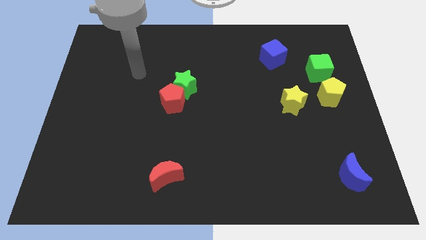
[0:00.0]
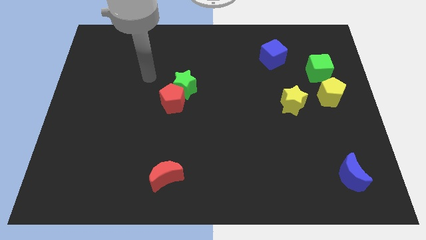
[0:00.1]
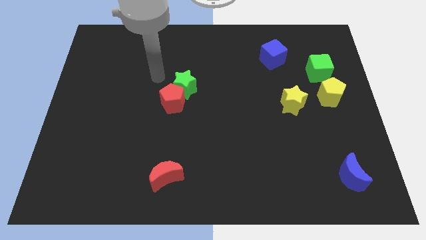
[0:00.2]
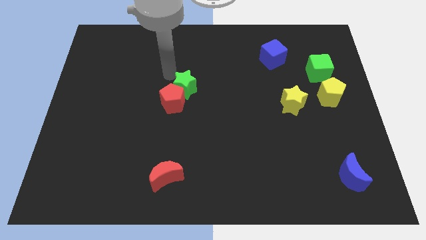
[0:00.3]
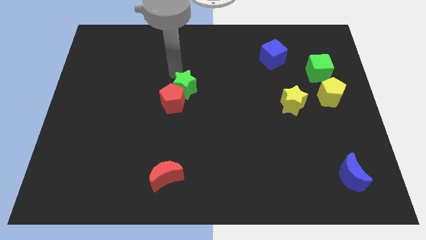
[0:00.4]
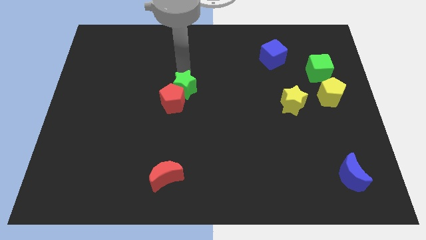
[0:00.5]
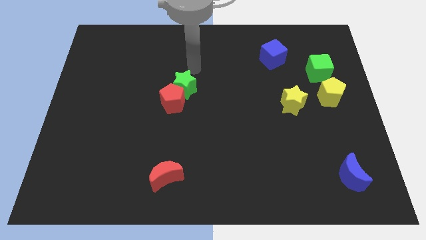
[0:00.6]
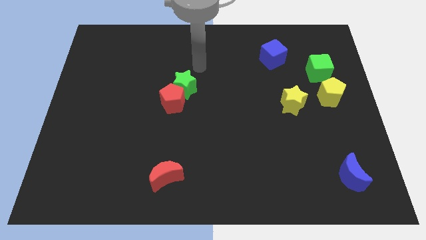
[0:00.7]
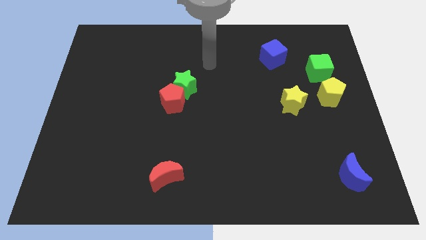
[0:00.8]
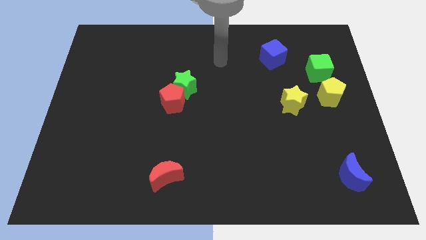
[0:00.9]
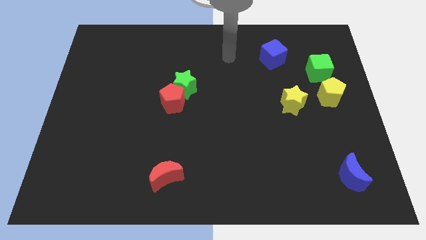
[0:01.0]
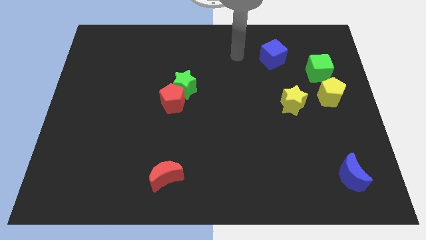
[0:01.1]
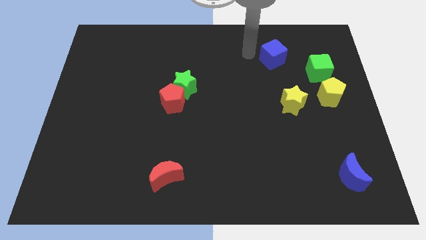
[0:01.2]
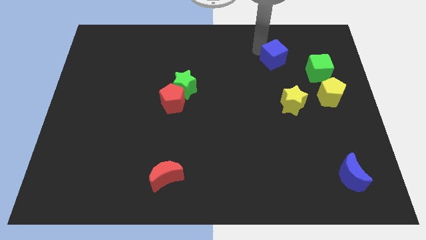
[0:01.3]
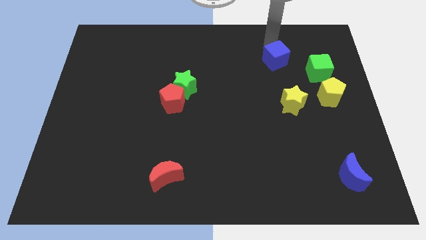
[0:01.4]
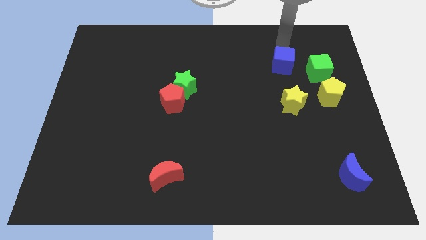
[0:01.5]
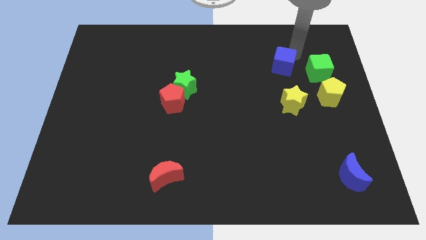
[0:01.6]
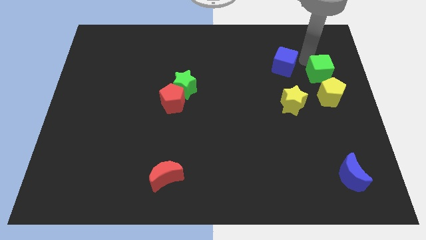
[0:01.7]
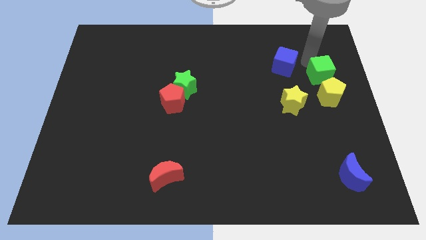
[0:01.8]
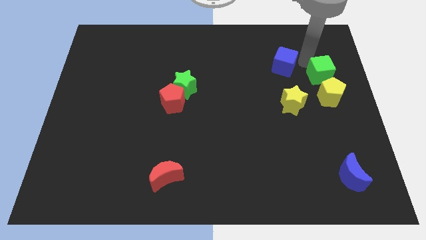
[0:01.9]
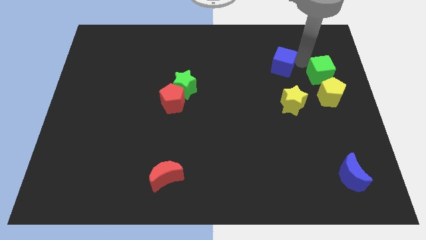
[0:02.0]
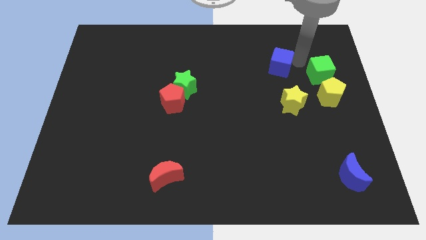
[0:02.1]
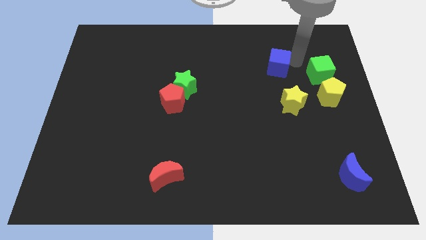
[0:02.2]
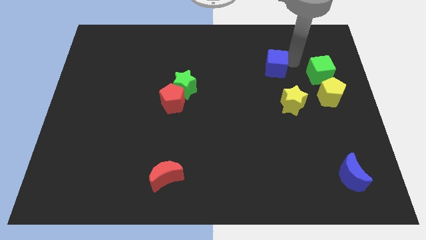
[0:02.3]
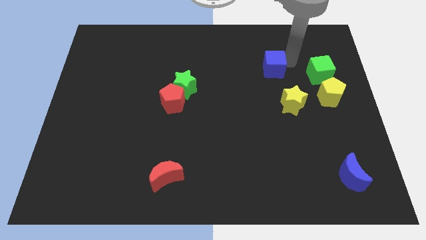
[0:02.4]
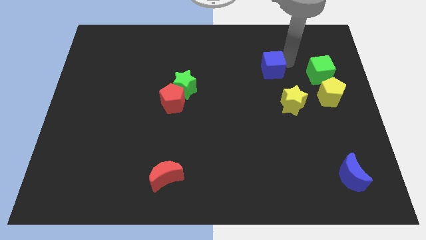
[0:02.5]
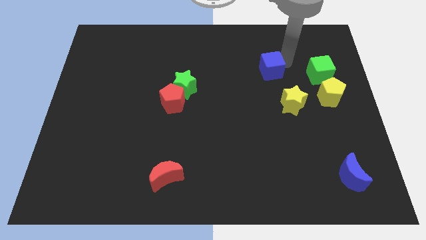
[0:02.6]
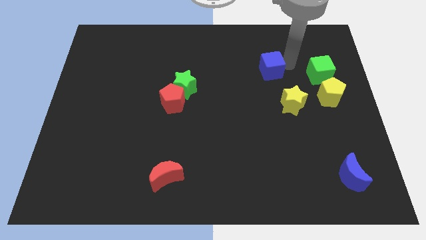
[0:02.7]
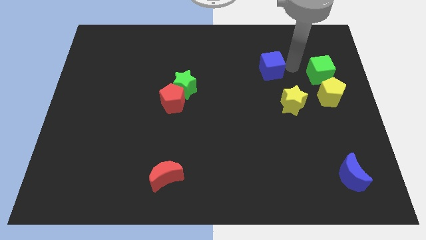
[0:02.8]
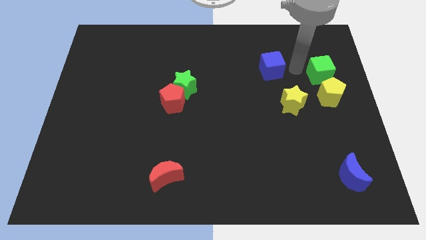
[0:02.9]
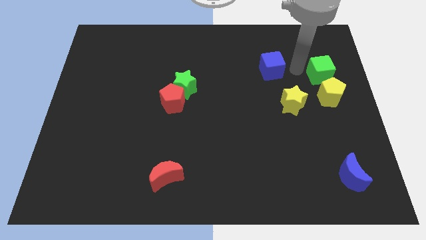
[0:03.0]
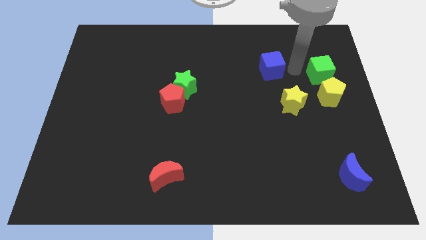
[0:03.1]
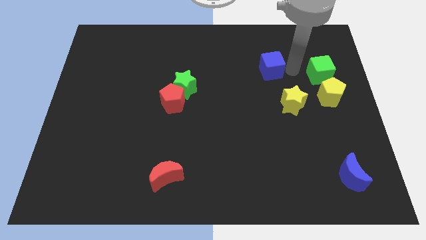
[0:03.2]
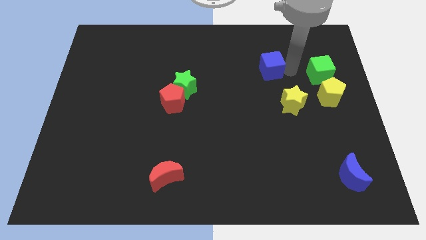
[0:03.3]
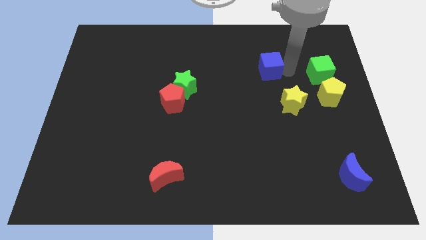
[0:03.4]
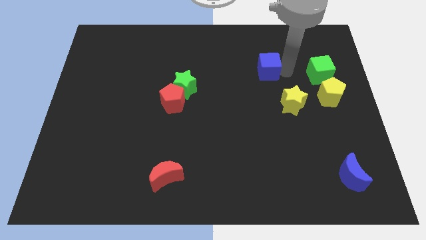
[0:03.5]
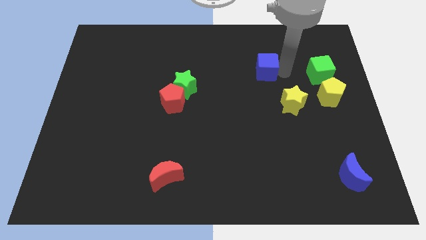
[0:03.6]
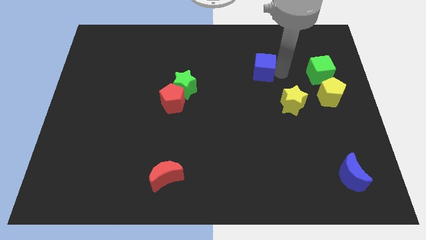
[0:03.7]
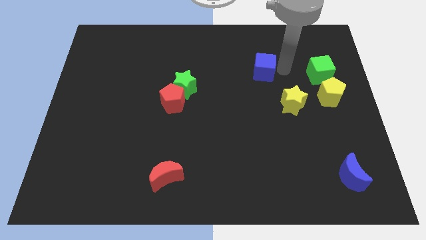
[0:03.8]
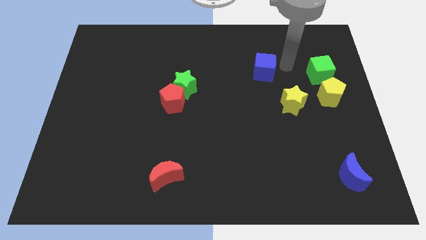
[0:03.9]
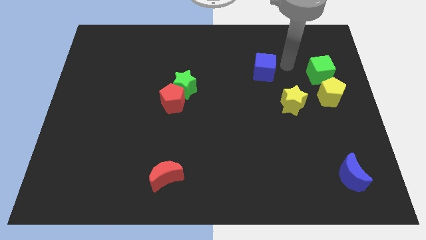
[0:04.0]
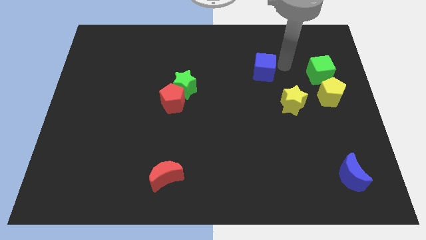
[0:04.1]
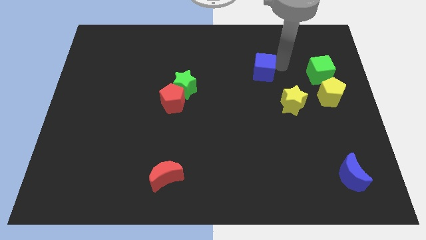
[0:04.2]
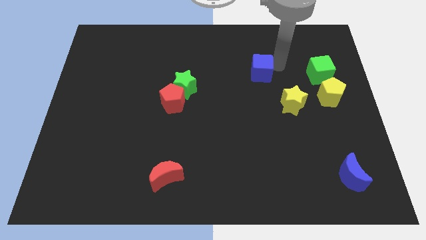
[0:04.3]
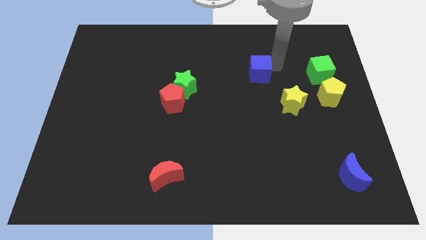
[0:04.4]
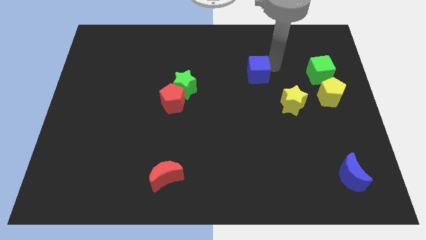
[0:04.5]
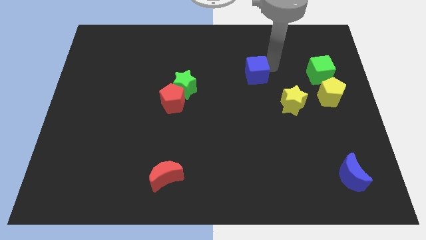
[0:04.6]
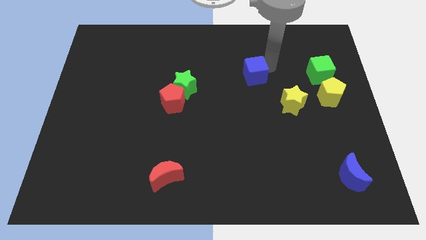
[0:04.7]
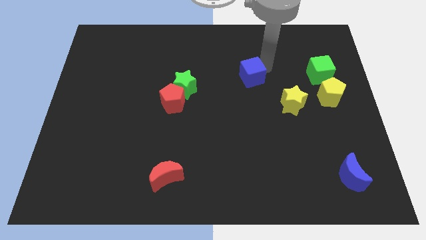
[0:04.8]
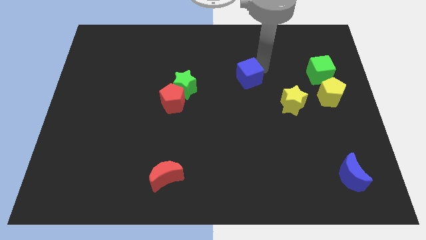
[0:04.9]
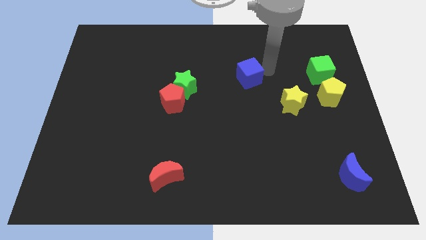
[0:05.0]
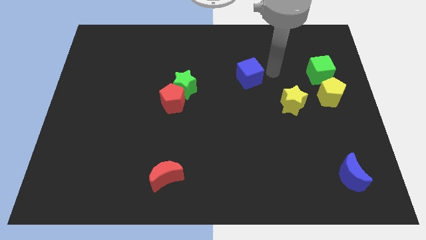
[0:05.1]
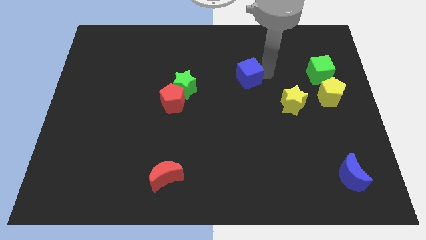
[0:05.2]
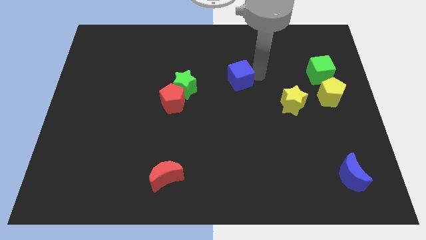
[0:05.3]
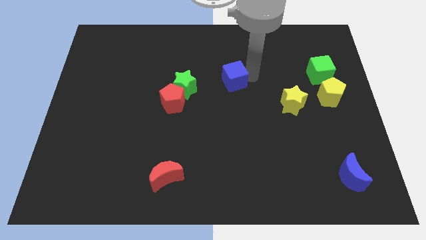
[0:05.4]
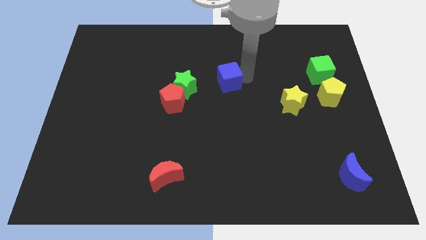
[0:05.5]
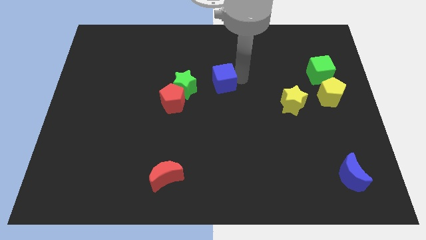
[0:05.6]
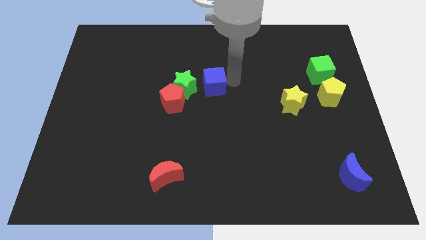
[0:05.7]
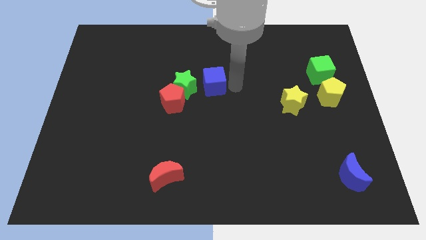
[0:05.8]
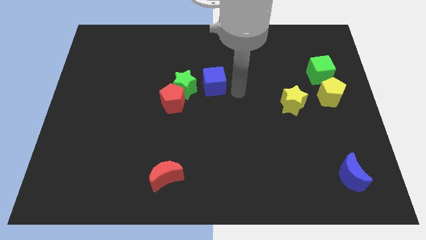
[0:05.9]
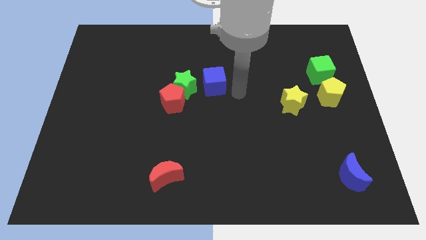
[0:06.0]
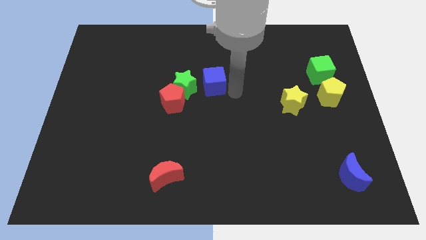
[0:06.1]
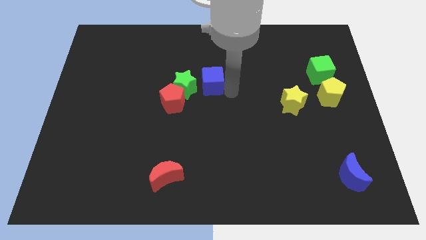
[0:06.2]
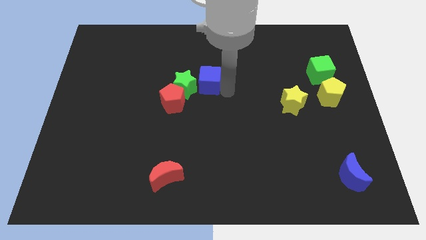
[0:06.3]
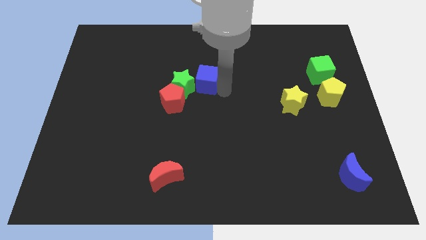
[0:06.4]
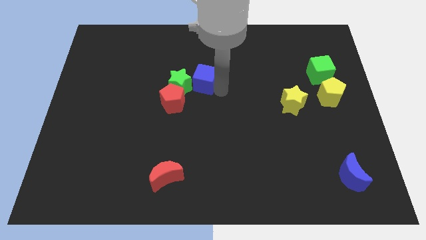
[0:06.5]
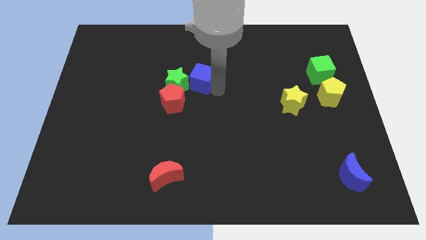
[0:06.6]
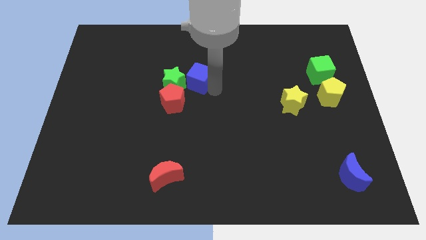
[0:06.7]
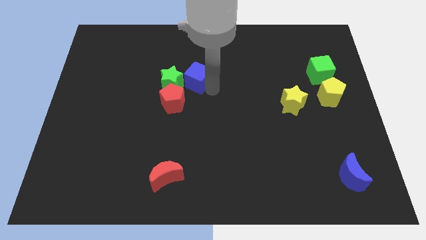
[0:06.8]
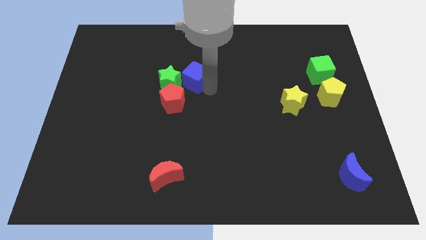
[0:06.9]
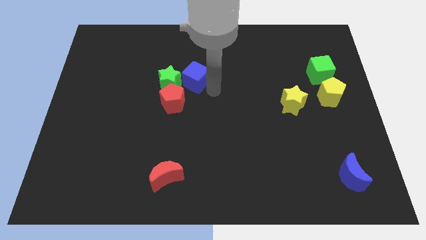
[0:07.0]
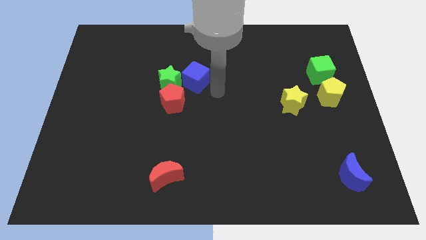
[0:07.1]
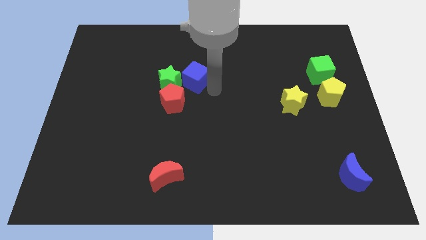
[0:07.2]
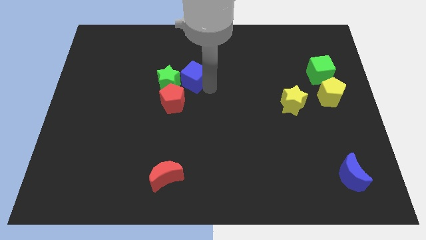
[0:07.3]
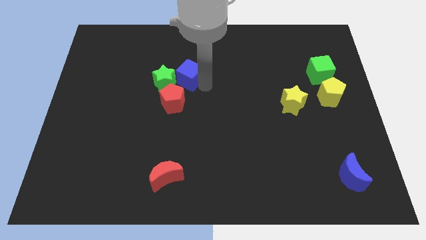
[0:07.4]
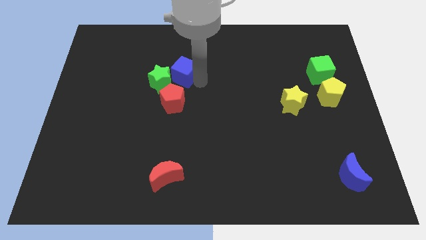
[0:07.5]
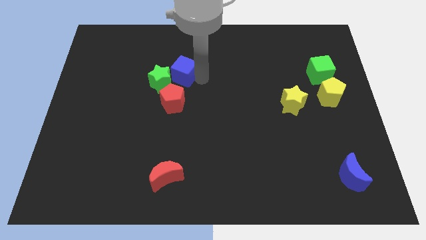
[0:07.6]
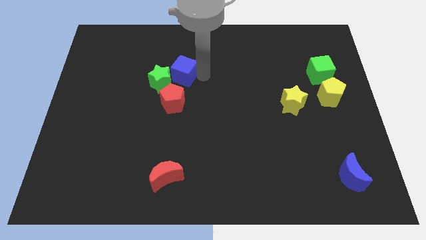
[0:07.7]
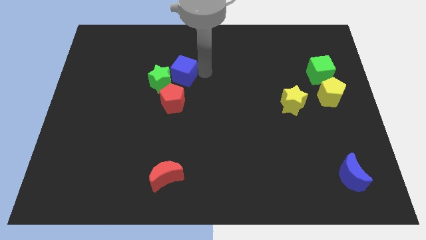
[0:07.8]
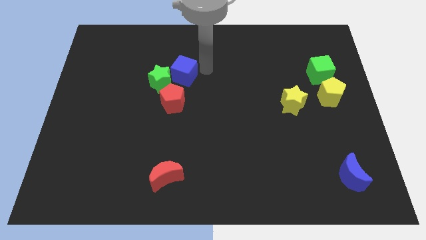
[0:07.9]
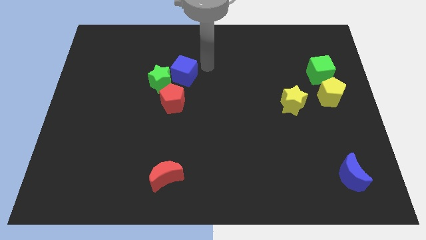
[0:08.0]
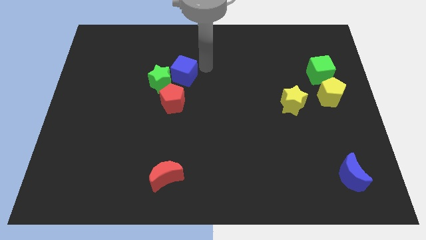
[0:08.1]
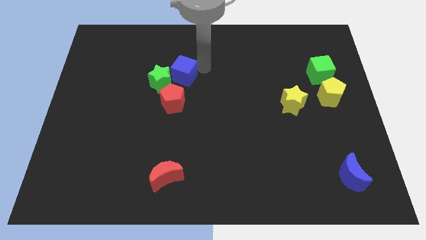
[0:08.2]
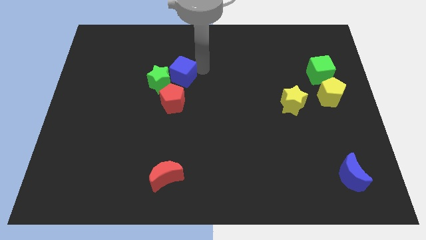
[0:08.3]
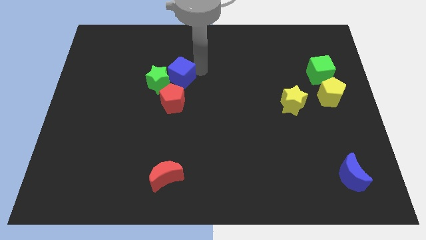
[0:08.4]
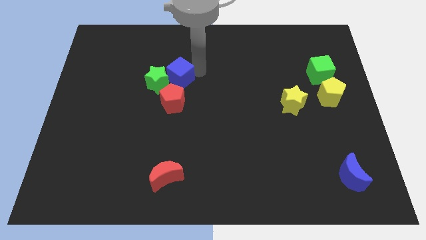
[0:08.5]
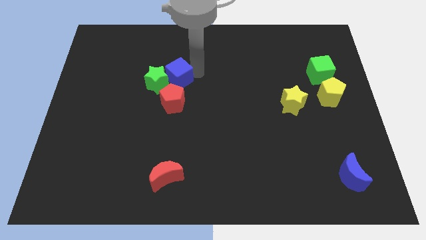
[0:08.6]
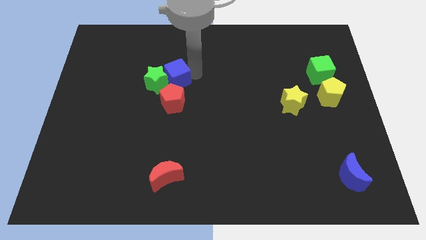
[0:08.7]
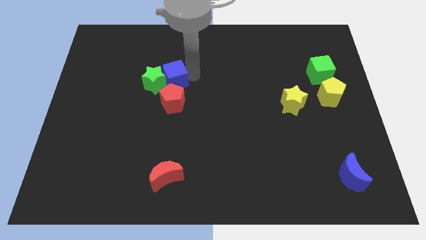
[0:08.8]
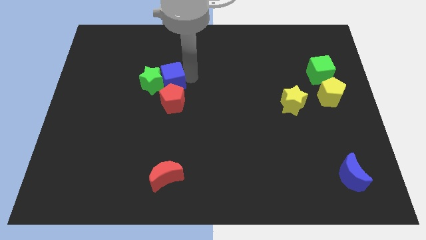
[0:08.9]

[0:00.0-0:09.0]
put the blue cube to the top left side of the red pentagon
